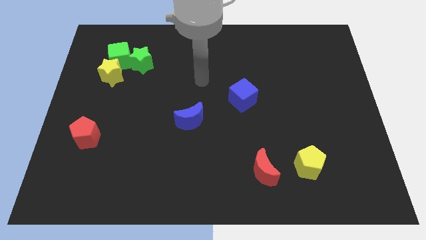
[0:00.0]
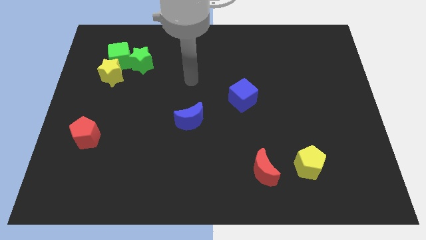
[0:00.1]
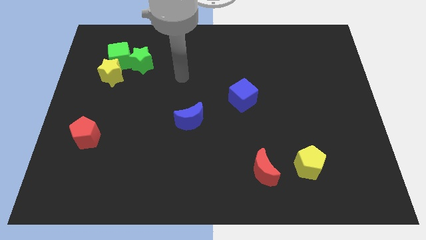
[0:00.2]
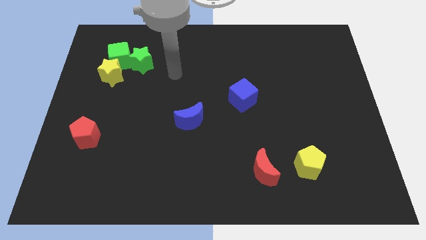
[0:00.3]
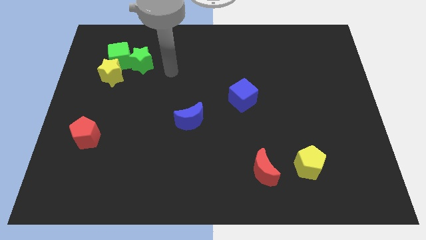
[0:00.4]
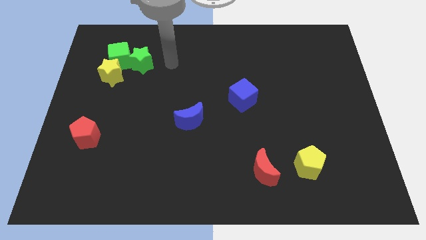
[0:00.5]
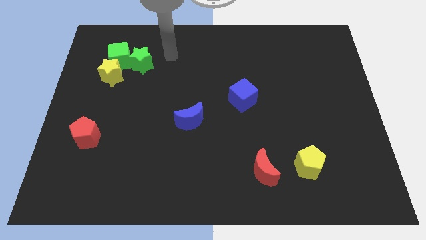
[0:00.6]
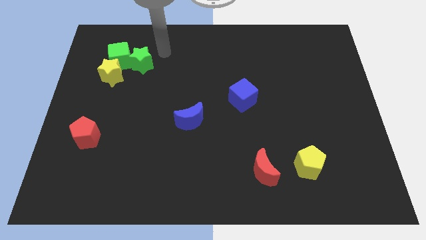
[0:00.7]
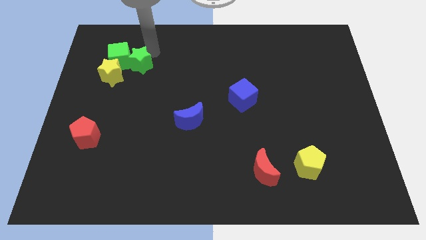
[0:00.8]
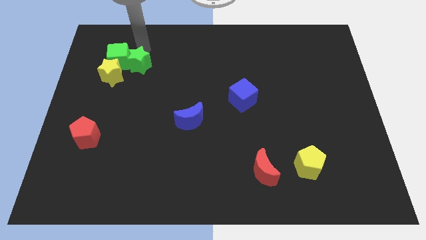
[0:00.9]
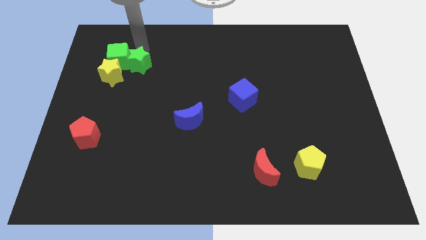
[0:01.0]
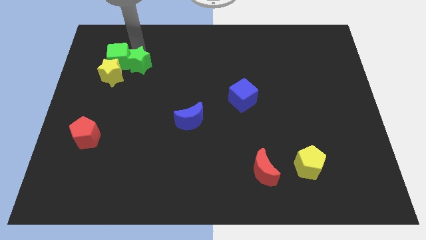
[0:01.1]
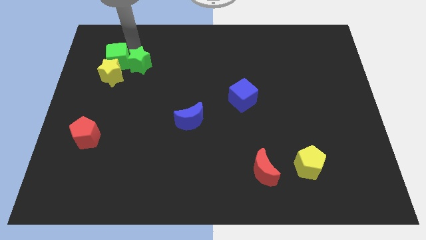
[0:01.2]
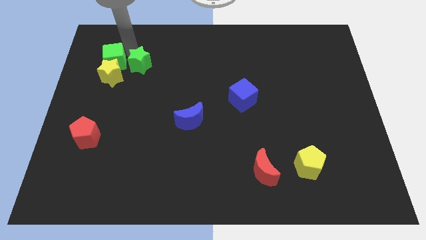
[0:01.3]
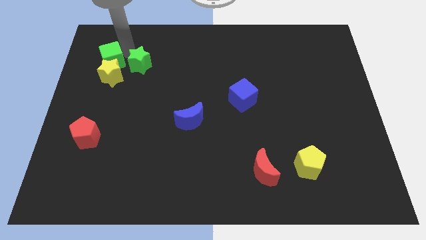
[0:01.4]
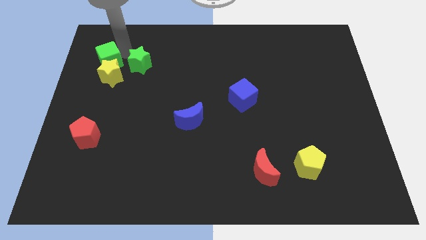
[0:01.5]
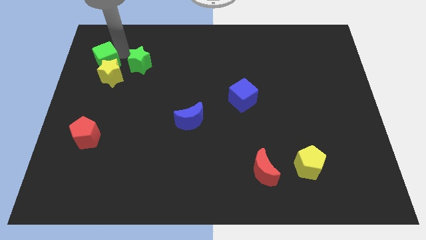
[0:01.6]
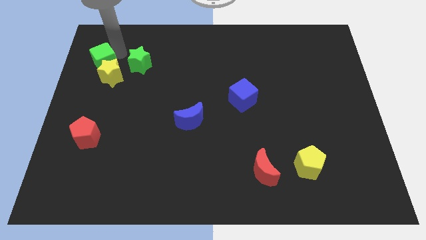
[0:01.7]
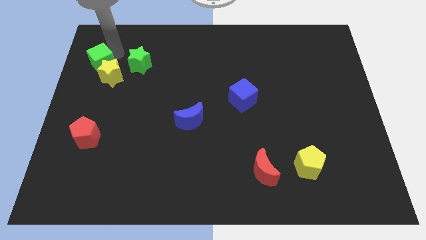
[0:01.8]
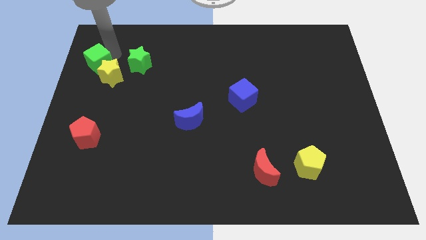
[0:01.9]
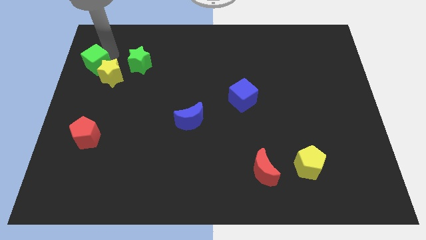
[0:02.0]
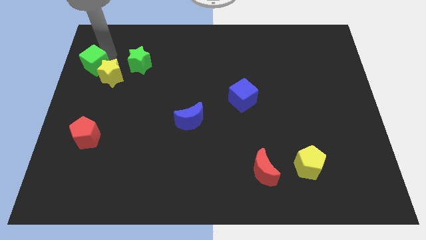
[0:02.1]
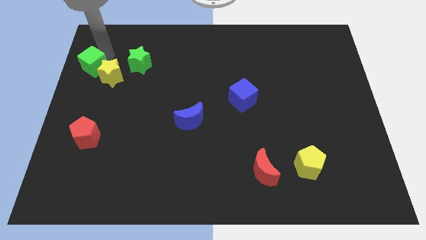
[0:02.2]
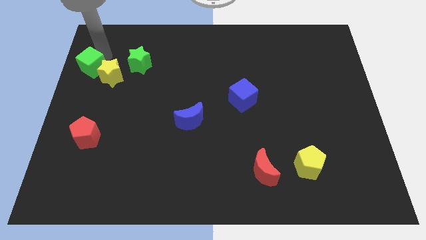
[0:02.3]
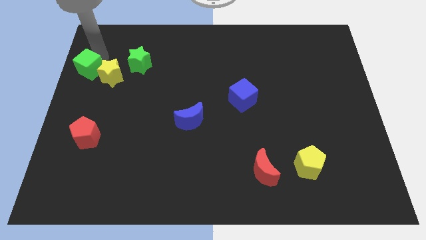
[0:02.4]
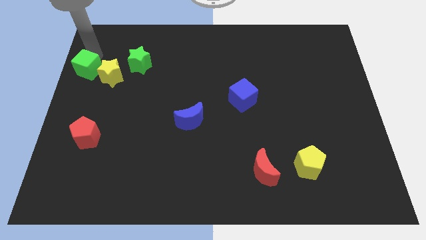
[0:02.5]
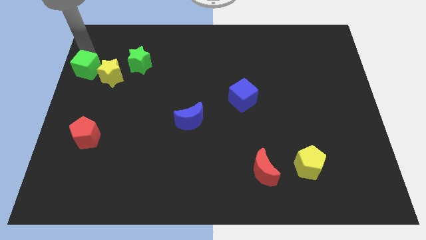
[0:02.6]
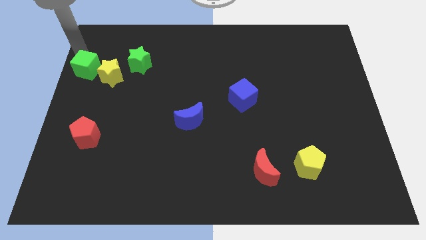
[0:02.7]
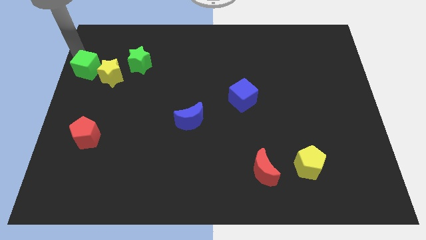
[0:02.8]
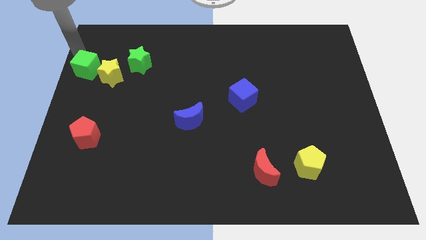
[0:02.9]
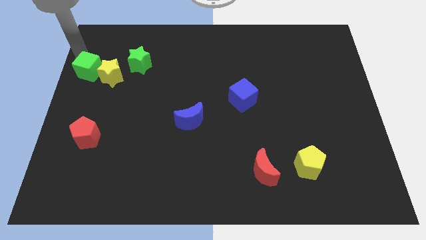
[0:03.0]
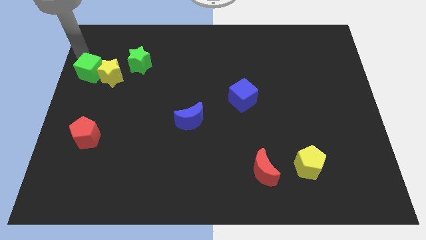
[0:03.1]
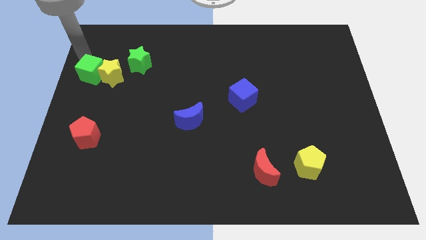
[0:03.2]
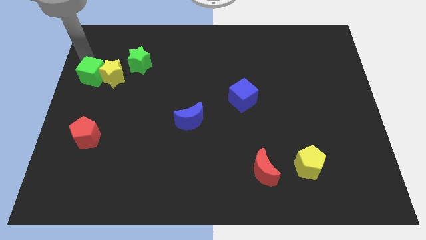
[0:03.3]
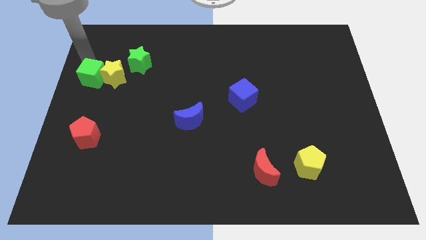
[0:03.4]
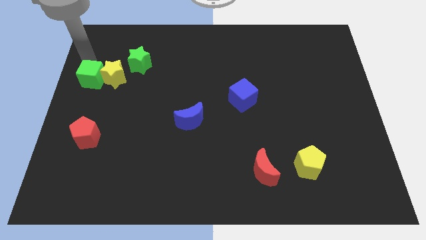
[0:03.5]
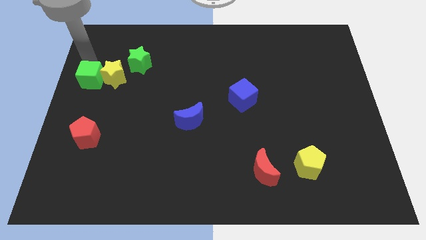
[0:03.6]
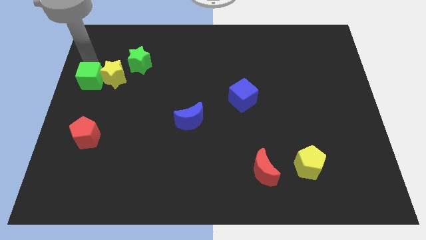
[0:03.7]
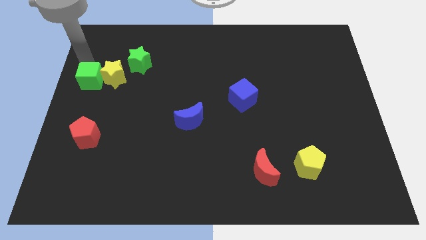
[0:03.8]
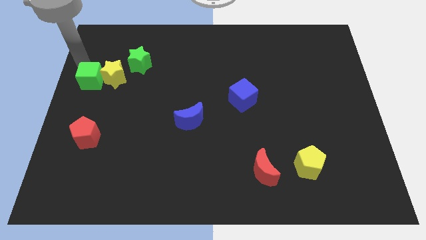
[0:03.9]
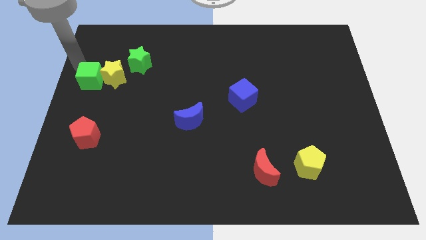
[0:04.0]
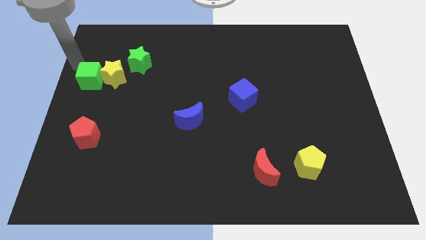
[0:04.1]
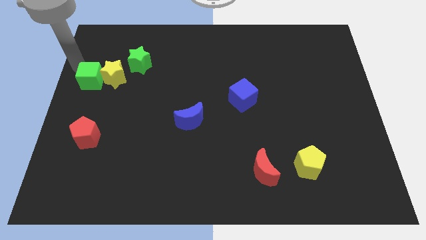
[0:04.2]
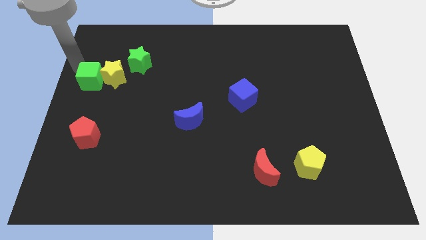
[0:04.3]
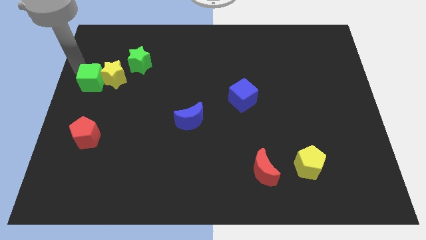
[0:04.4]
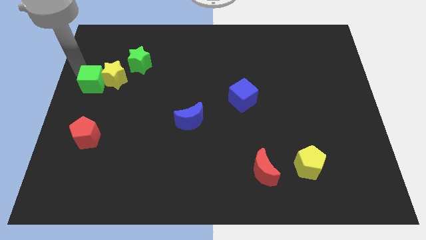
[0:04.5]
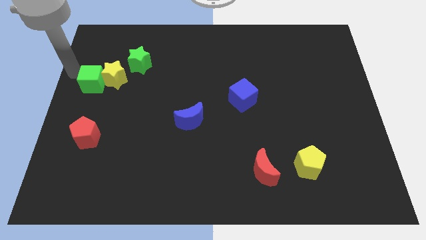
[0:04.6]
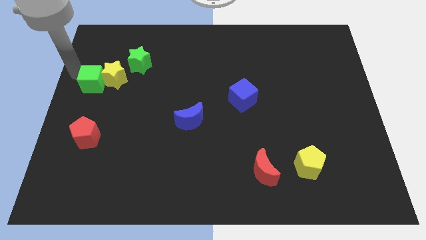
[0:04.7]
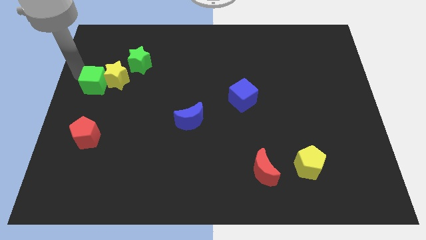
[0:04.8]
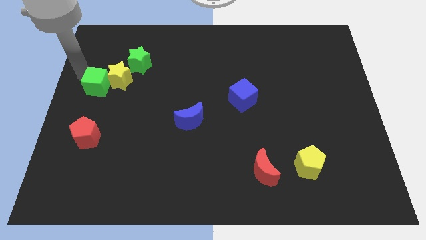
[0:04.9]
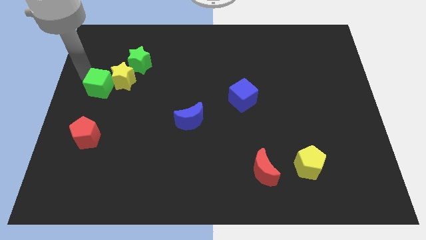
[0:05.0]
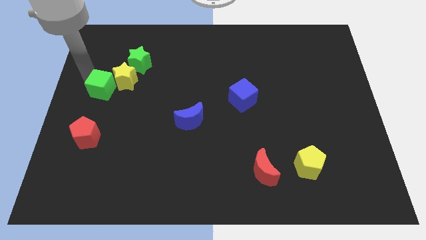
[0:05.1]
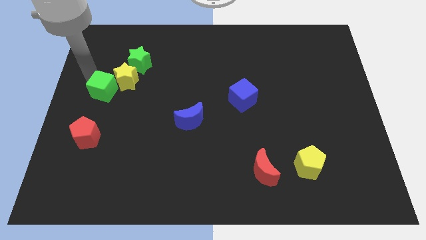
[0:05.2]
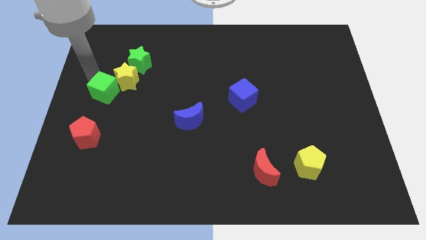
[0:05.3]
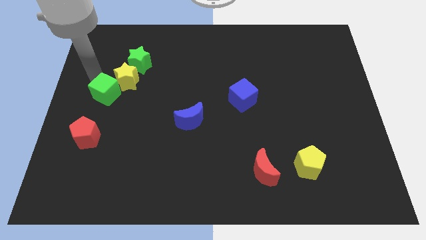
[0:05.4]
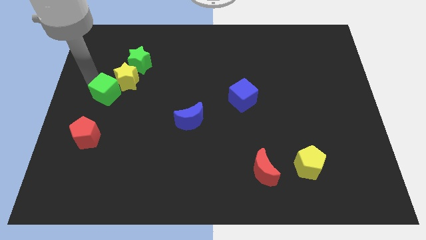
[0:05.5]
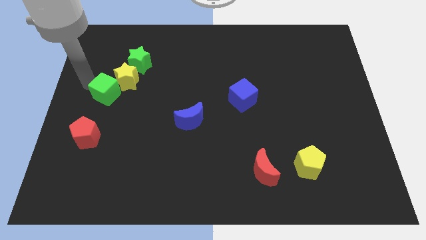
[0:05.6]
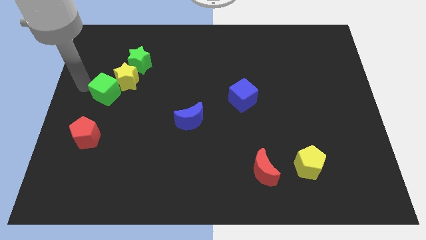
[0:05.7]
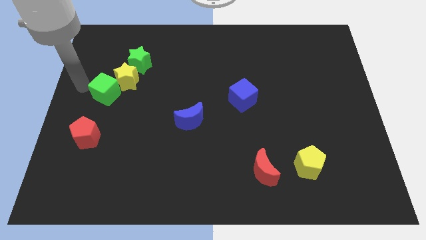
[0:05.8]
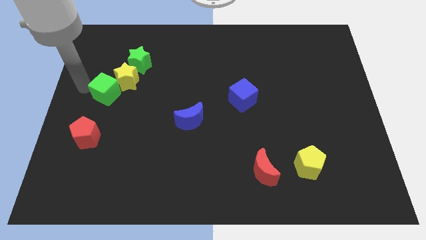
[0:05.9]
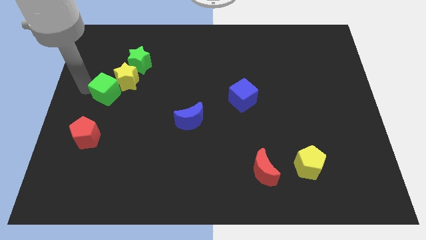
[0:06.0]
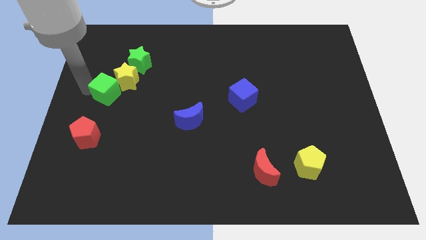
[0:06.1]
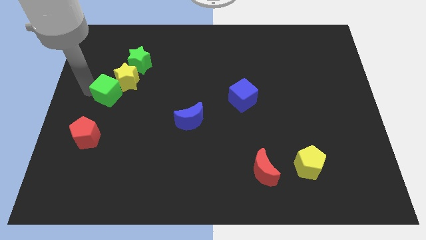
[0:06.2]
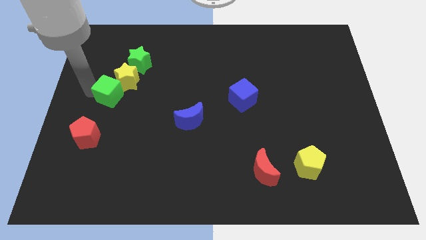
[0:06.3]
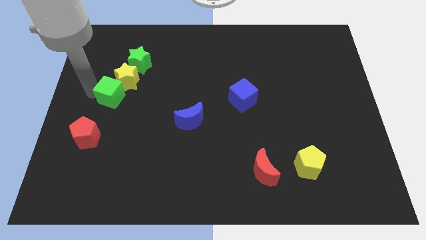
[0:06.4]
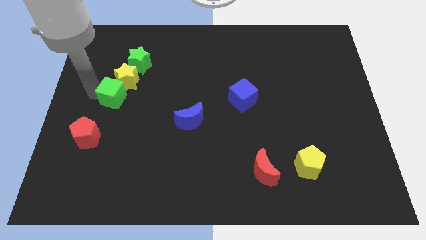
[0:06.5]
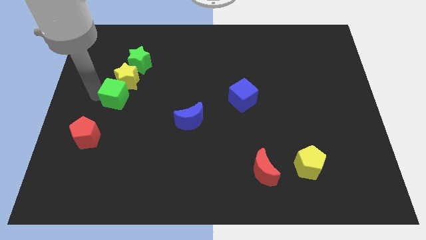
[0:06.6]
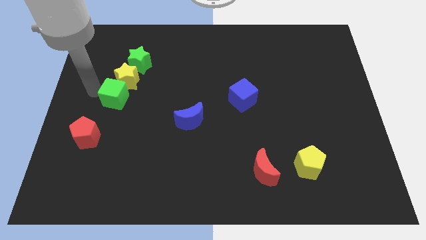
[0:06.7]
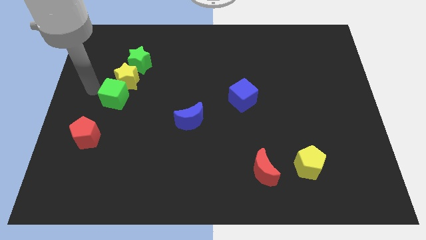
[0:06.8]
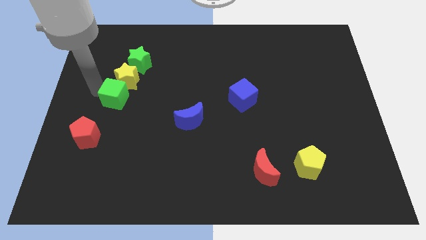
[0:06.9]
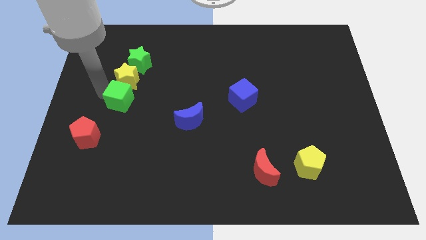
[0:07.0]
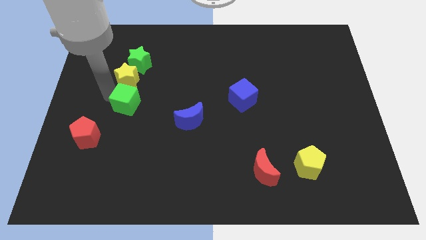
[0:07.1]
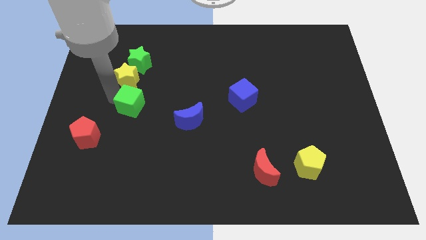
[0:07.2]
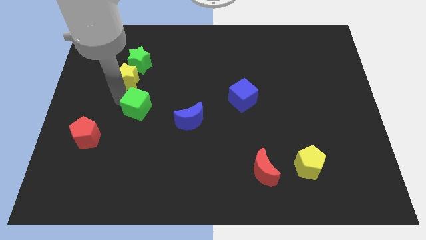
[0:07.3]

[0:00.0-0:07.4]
move the green cube left of the blue moon
